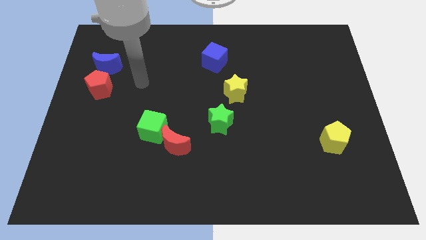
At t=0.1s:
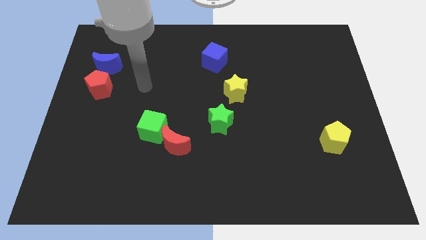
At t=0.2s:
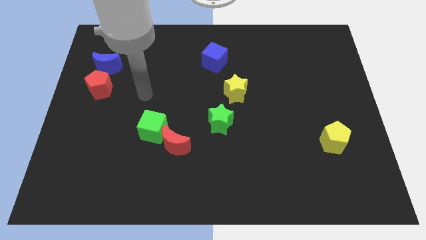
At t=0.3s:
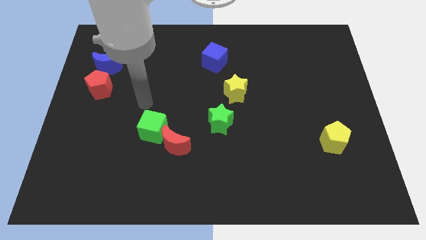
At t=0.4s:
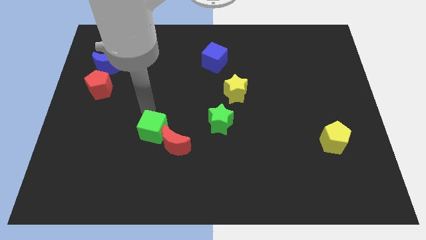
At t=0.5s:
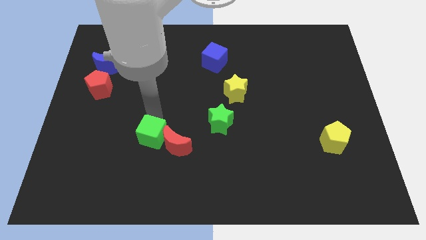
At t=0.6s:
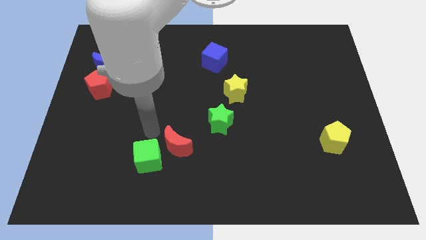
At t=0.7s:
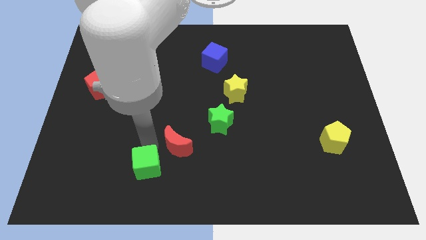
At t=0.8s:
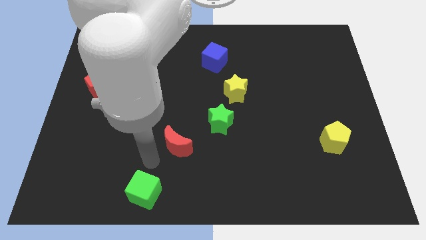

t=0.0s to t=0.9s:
separate the red moon from the green cube

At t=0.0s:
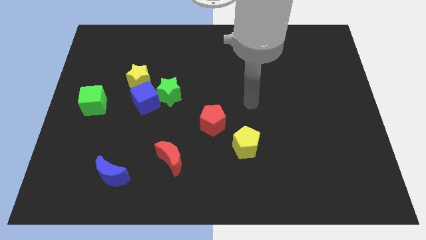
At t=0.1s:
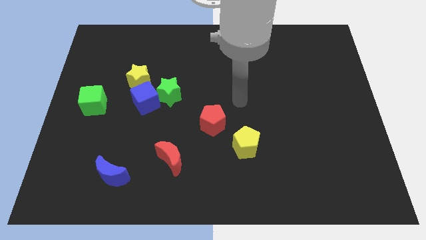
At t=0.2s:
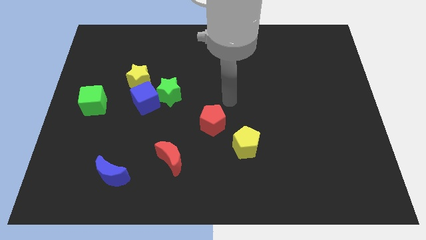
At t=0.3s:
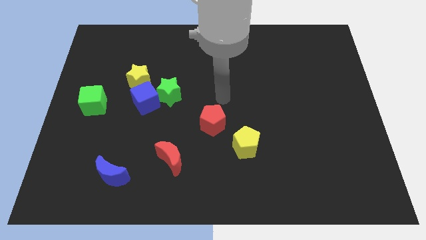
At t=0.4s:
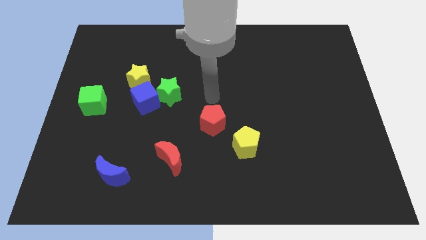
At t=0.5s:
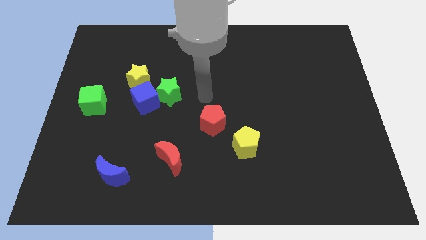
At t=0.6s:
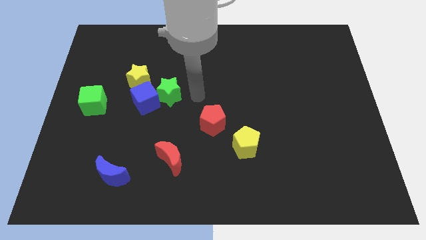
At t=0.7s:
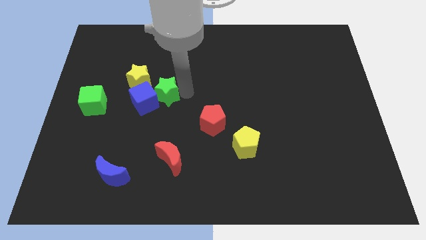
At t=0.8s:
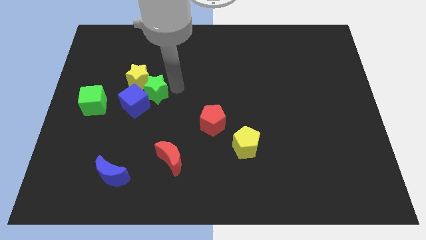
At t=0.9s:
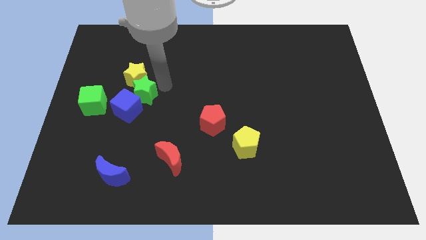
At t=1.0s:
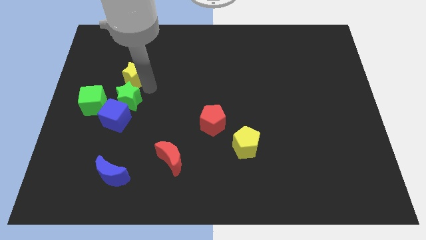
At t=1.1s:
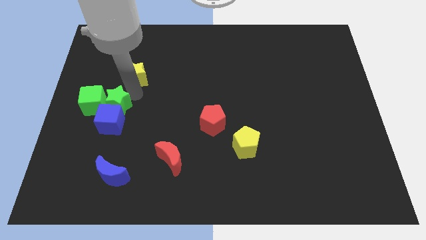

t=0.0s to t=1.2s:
move the blue cube away from the green star and yellow star

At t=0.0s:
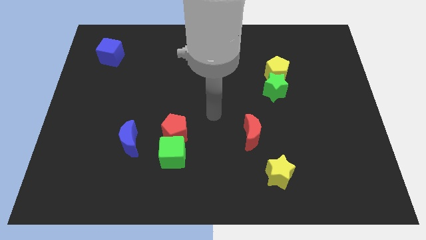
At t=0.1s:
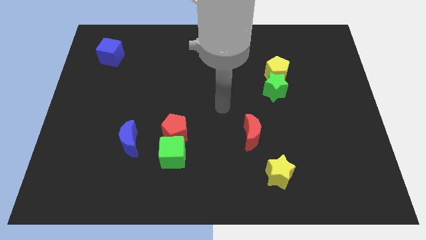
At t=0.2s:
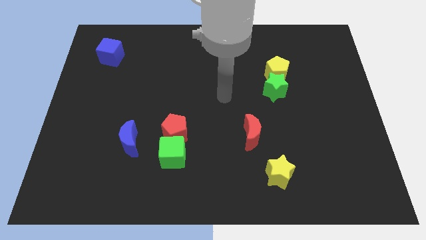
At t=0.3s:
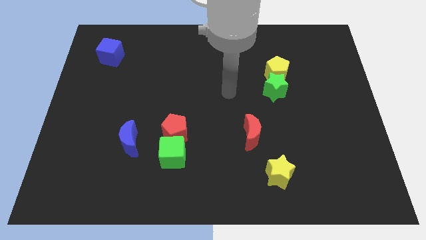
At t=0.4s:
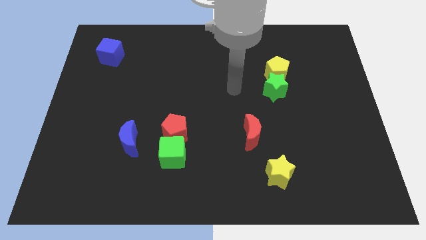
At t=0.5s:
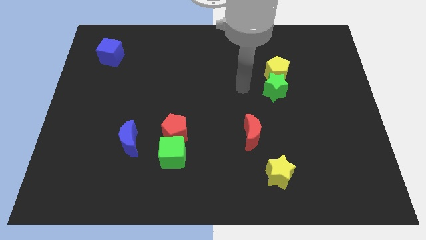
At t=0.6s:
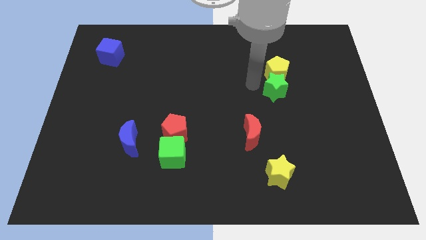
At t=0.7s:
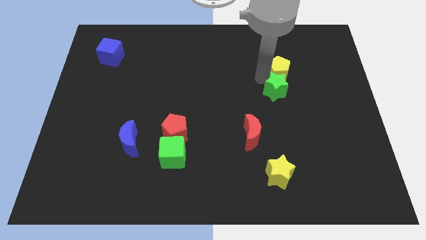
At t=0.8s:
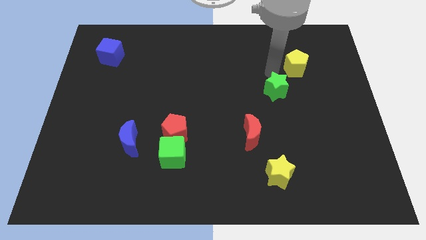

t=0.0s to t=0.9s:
move the green star away from the yellow pentagon

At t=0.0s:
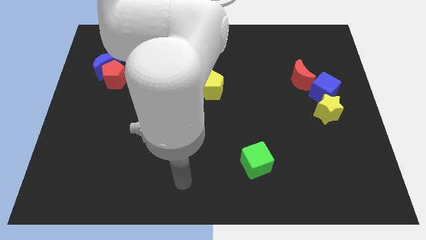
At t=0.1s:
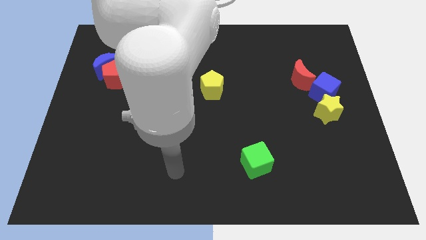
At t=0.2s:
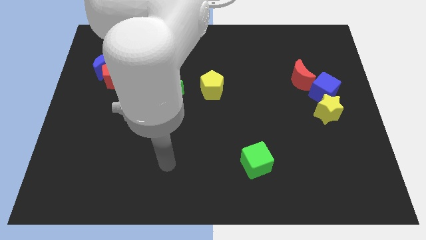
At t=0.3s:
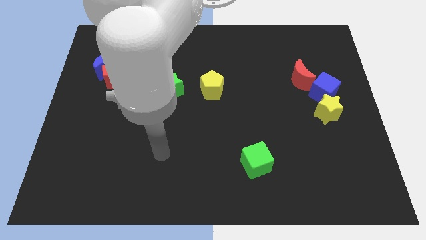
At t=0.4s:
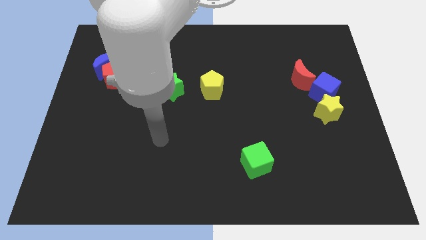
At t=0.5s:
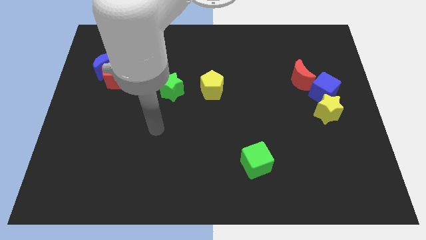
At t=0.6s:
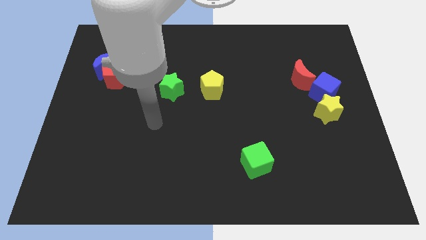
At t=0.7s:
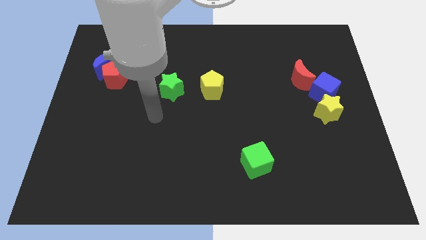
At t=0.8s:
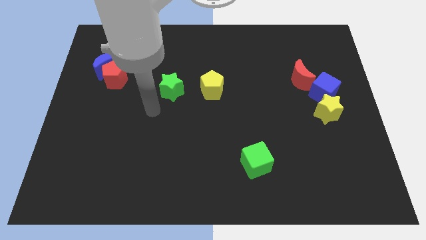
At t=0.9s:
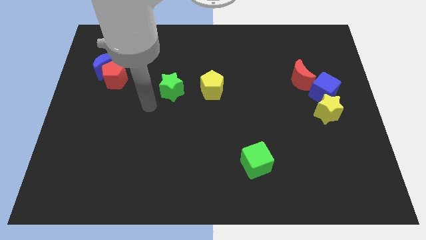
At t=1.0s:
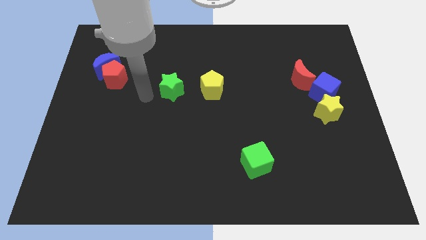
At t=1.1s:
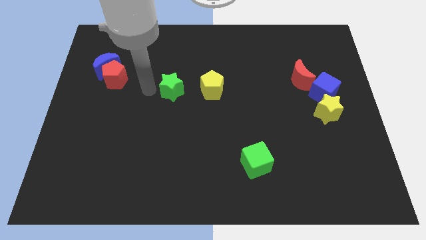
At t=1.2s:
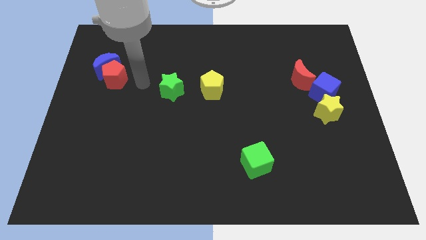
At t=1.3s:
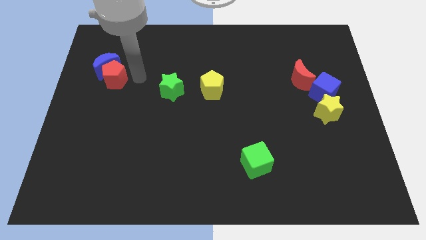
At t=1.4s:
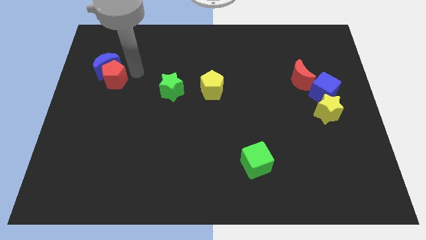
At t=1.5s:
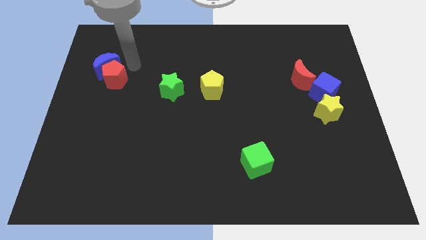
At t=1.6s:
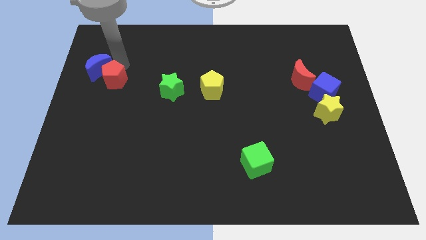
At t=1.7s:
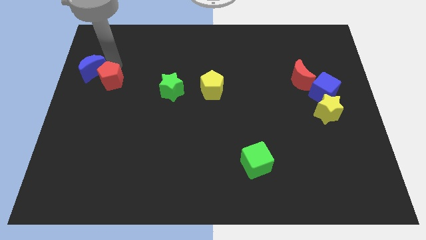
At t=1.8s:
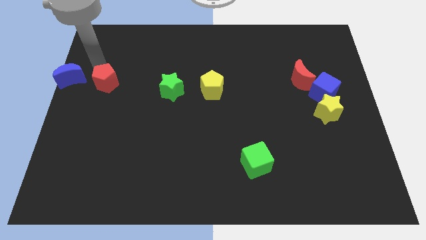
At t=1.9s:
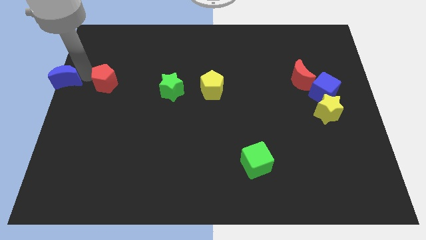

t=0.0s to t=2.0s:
move the red pentagon away from the blue moon

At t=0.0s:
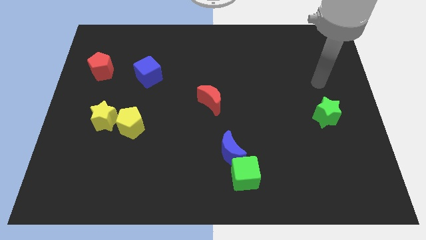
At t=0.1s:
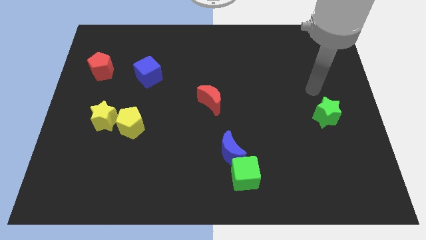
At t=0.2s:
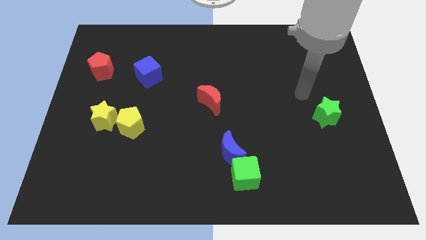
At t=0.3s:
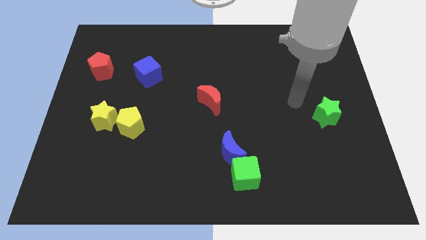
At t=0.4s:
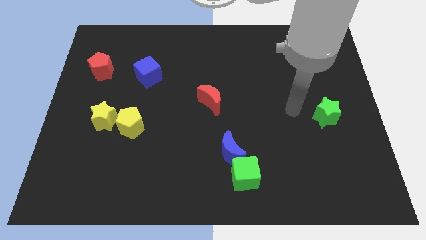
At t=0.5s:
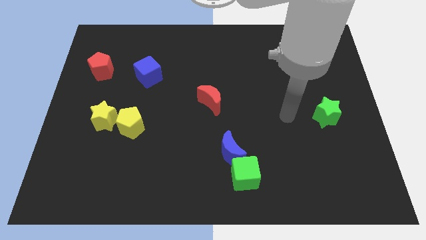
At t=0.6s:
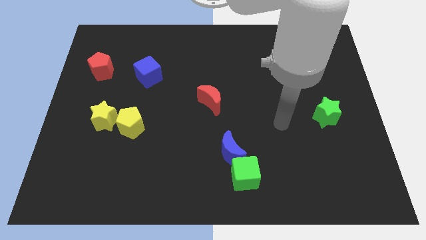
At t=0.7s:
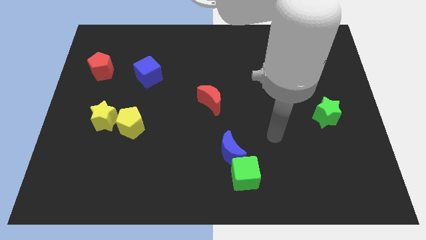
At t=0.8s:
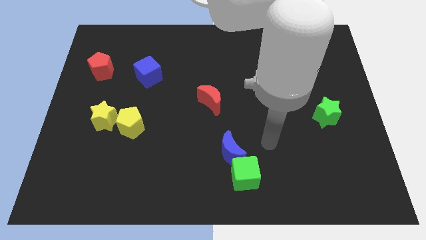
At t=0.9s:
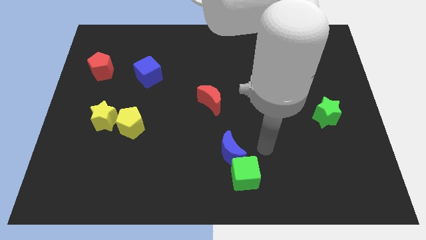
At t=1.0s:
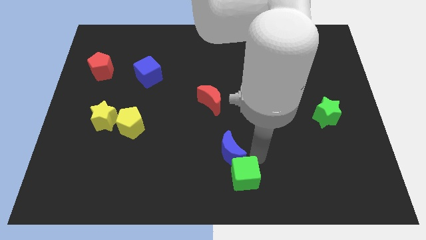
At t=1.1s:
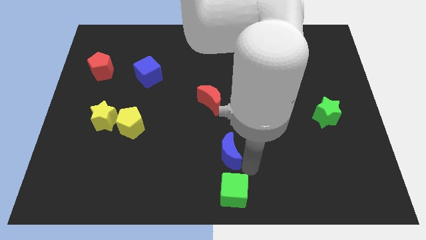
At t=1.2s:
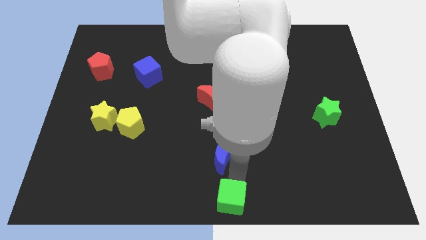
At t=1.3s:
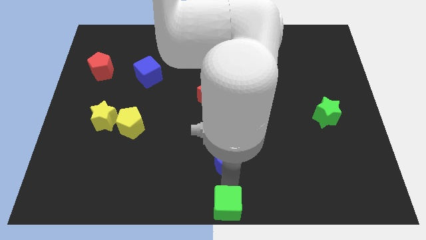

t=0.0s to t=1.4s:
move the blue moon away from the green cube

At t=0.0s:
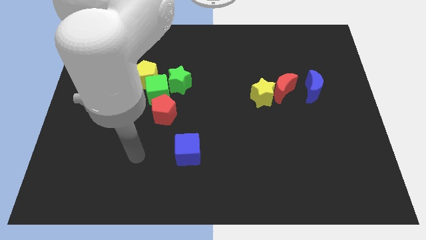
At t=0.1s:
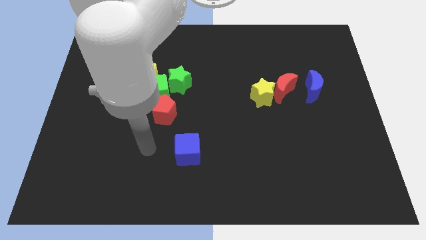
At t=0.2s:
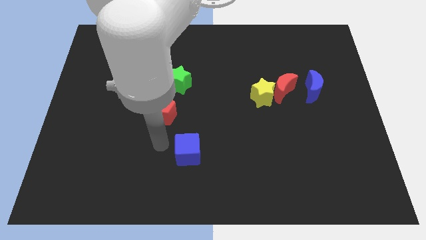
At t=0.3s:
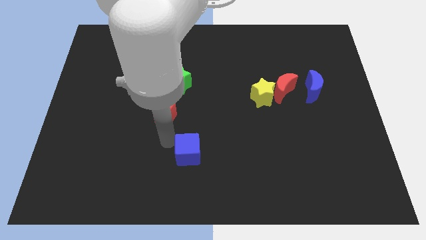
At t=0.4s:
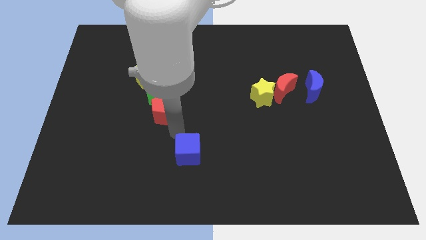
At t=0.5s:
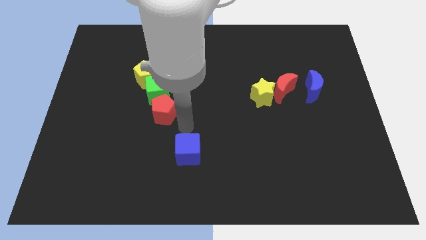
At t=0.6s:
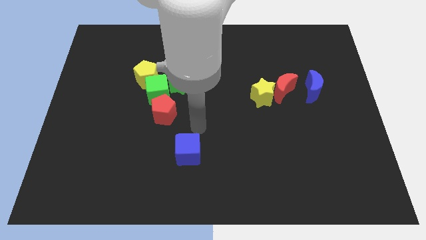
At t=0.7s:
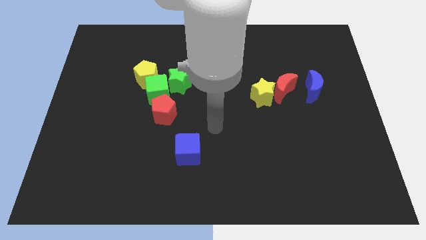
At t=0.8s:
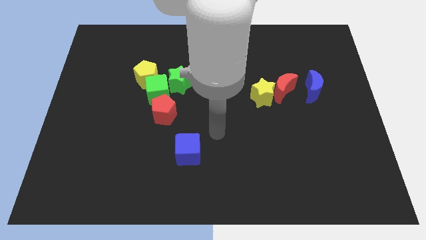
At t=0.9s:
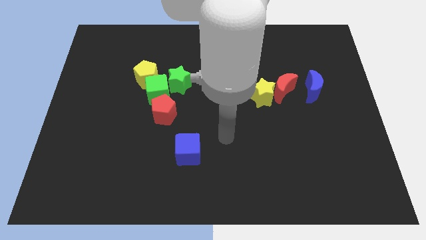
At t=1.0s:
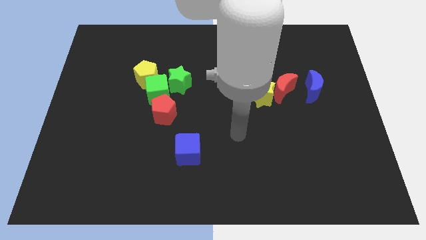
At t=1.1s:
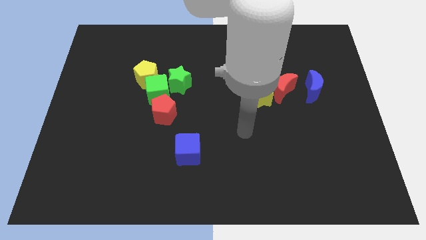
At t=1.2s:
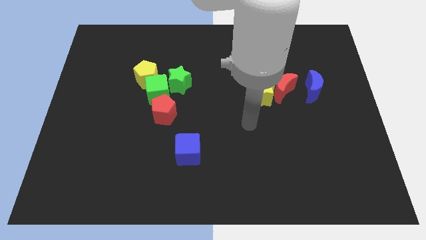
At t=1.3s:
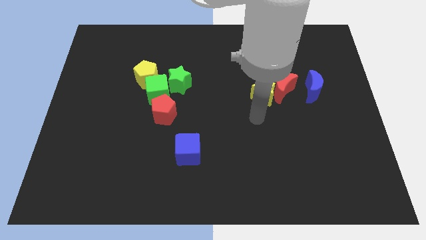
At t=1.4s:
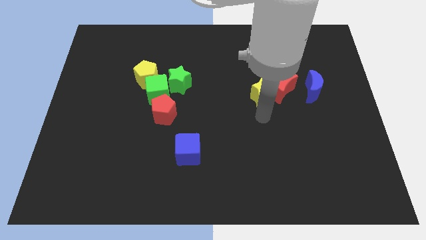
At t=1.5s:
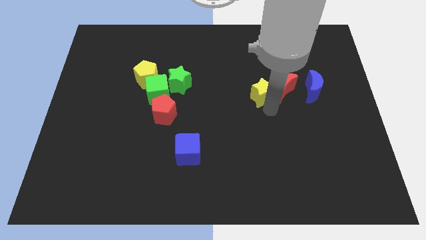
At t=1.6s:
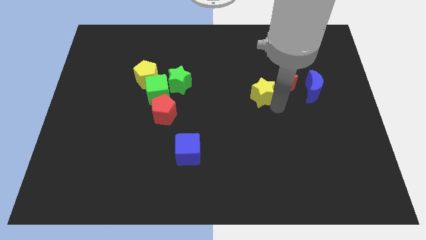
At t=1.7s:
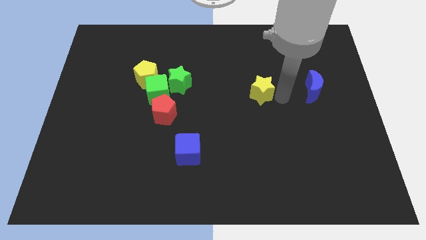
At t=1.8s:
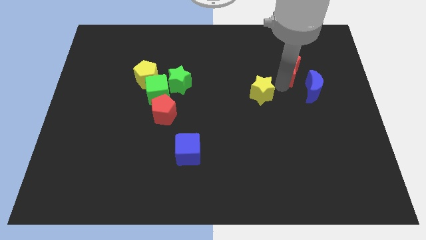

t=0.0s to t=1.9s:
separate the yellow star from the red moon

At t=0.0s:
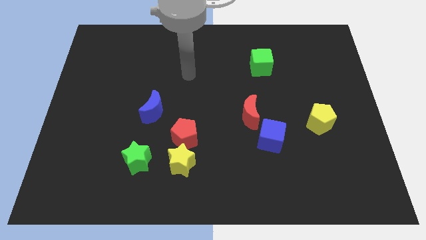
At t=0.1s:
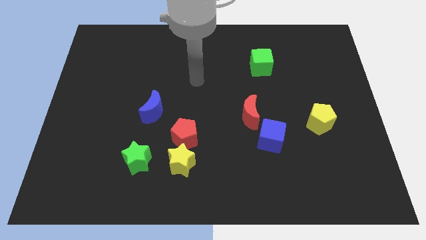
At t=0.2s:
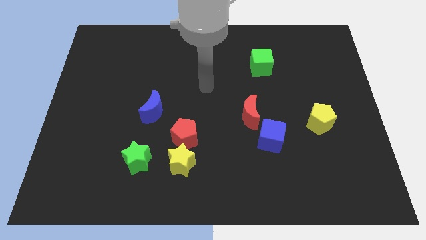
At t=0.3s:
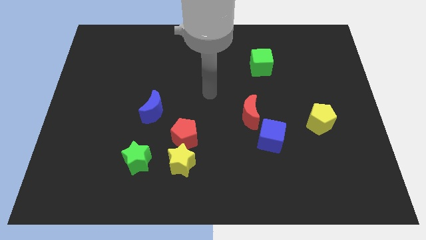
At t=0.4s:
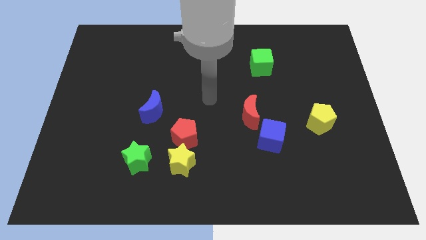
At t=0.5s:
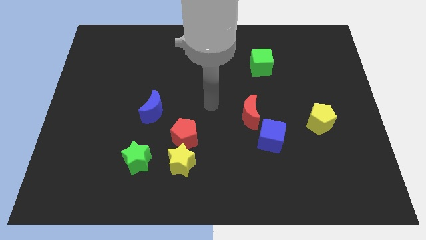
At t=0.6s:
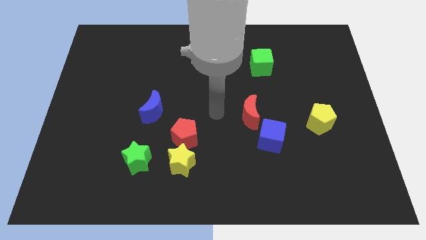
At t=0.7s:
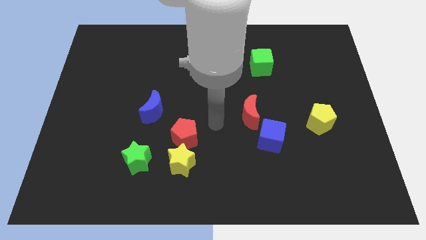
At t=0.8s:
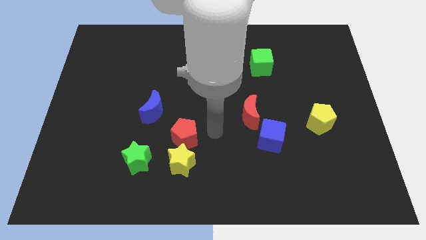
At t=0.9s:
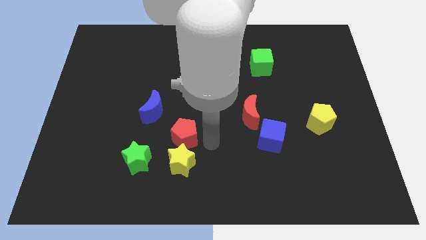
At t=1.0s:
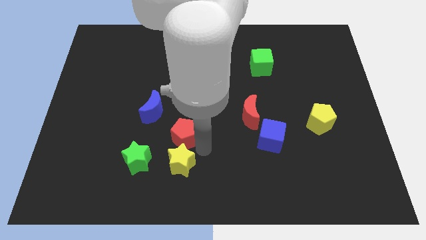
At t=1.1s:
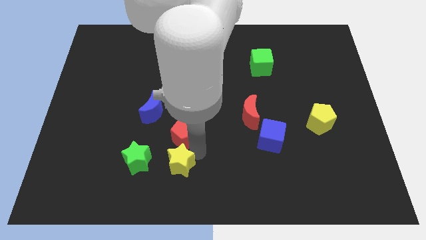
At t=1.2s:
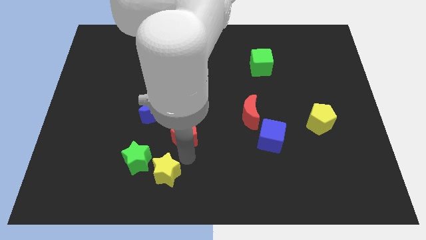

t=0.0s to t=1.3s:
move the red pentagon away from the yellow star
